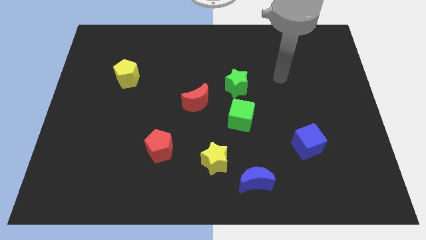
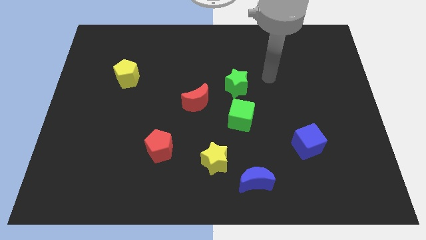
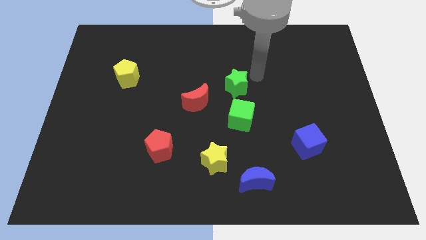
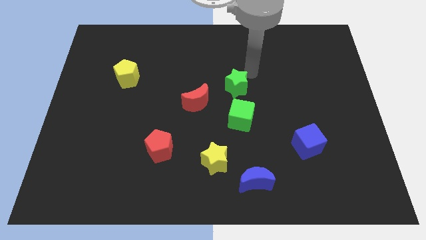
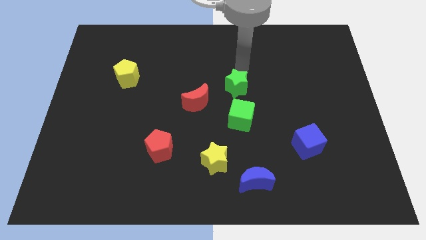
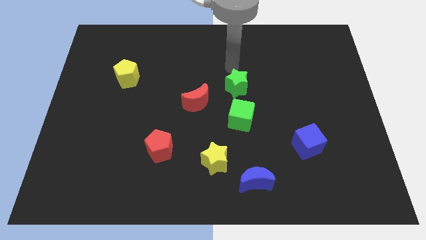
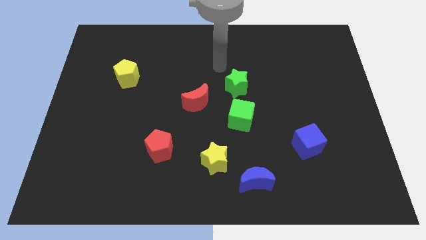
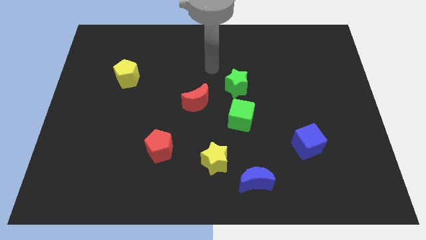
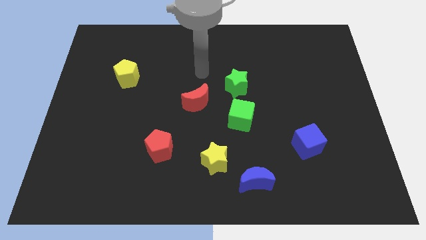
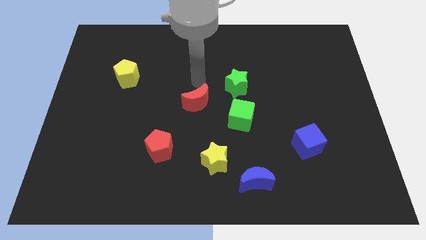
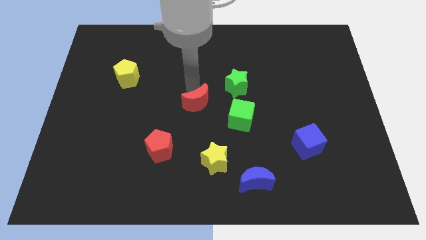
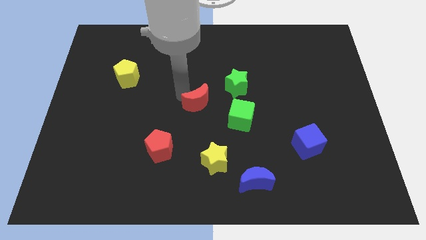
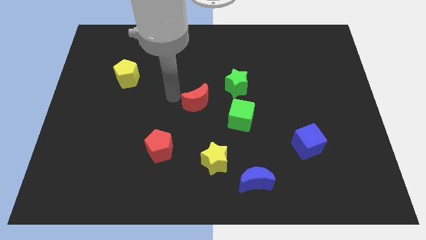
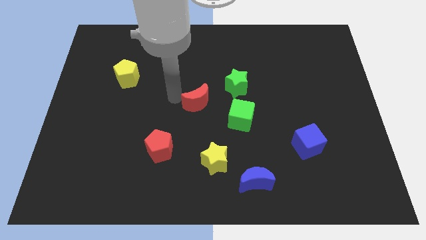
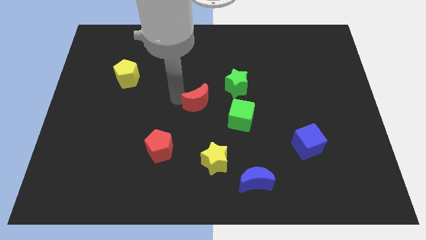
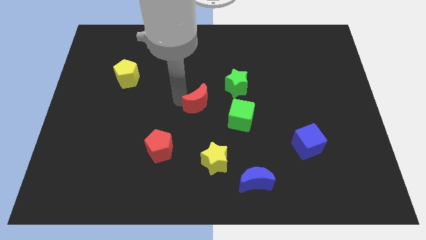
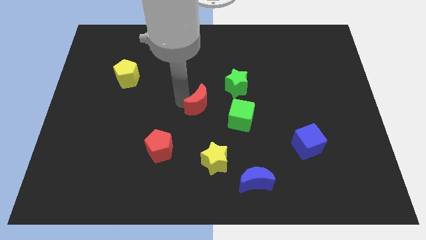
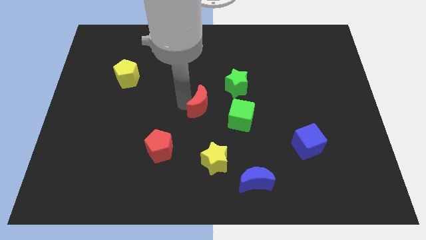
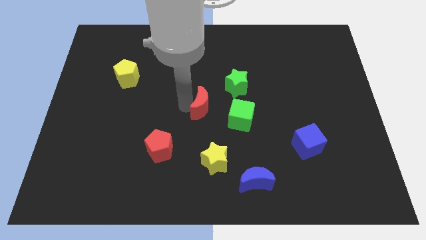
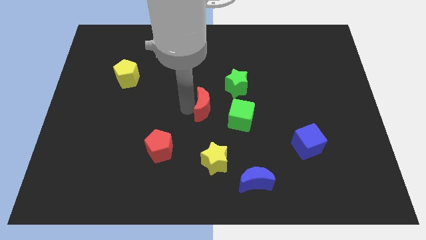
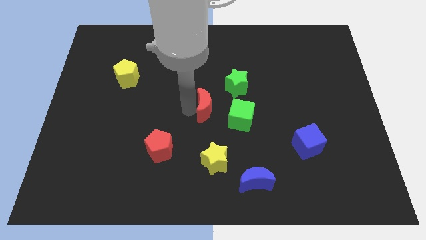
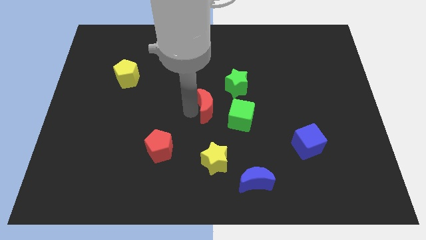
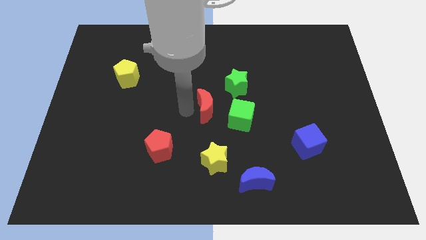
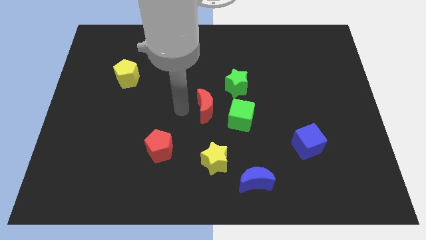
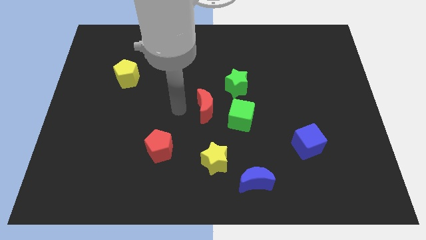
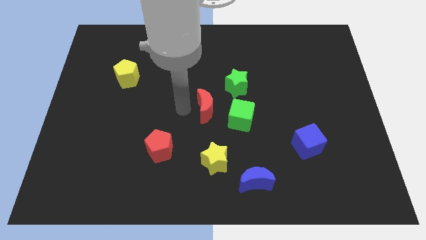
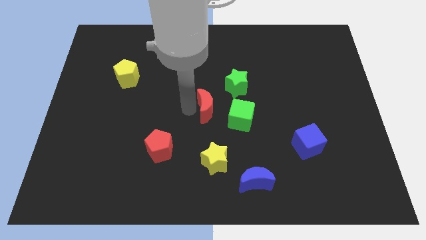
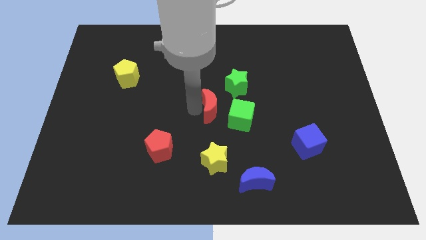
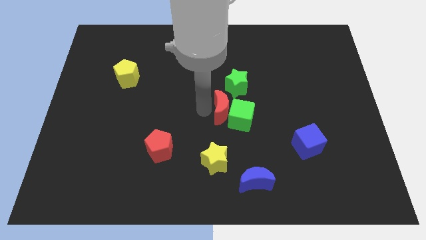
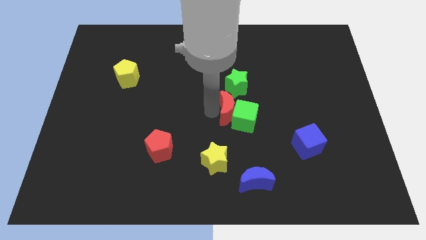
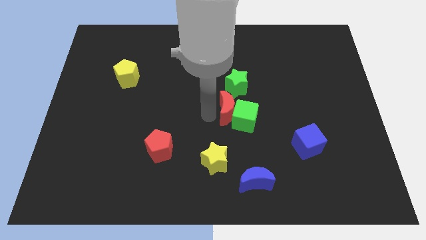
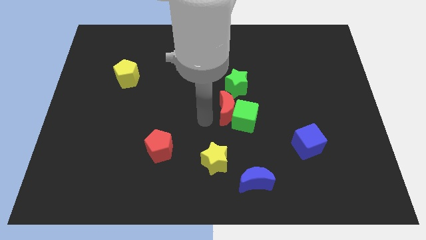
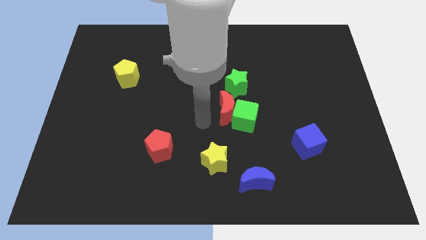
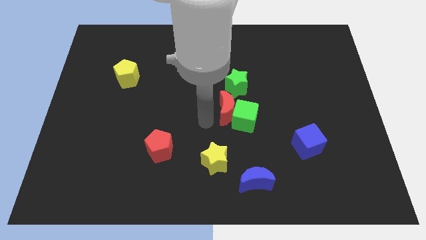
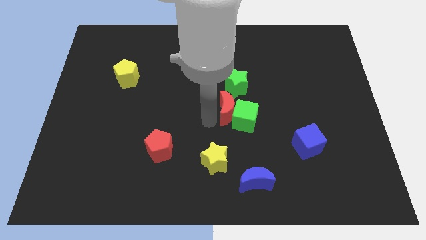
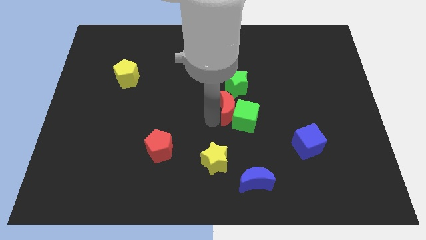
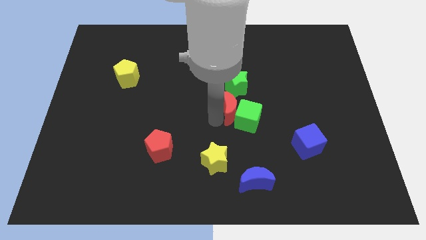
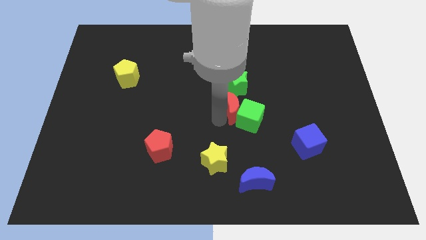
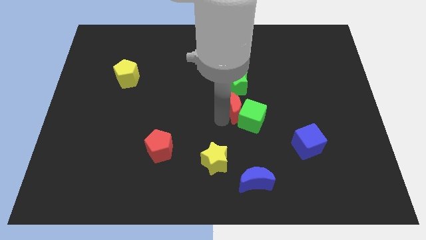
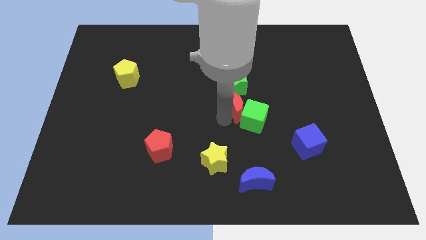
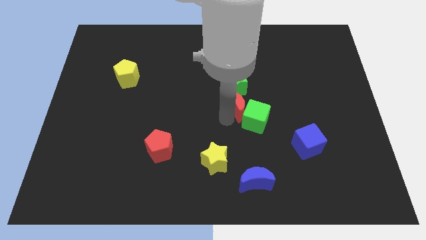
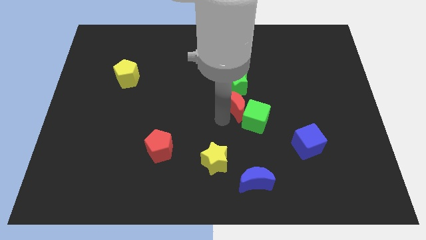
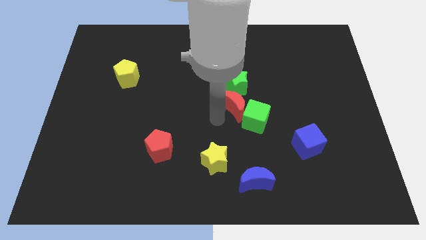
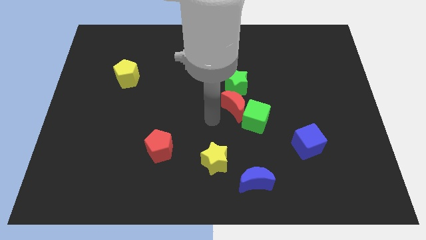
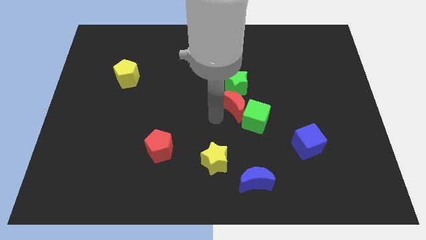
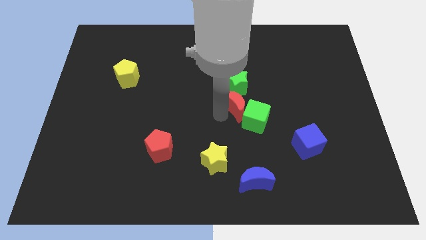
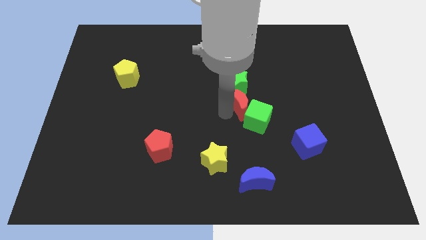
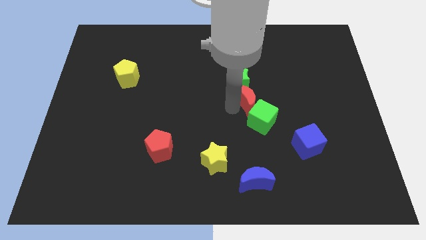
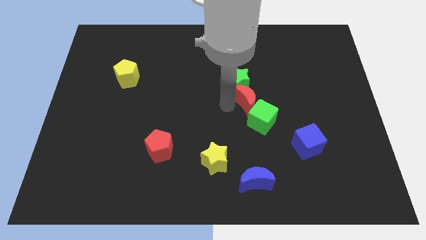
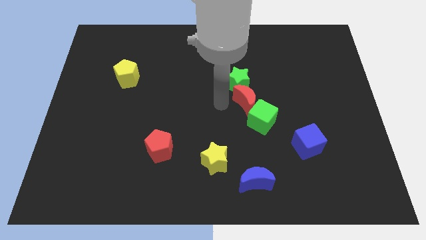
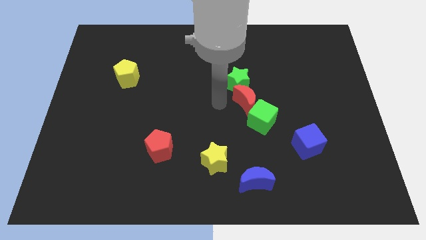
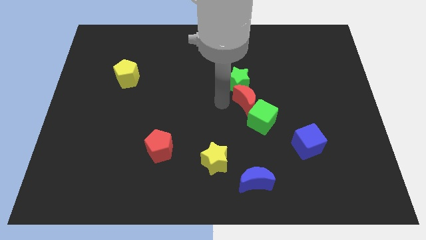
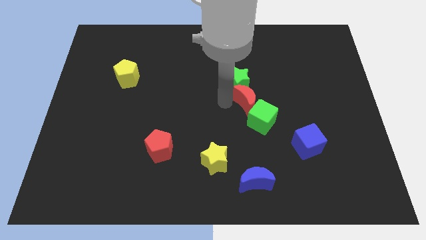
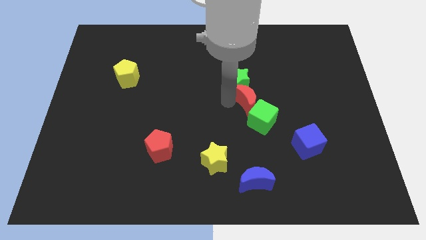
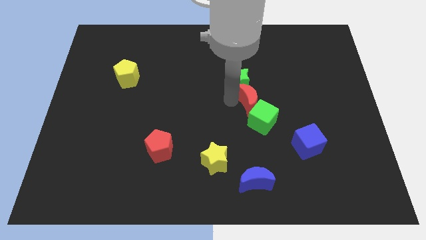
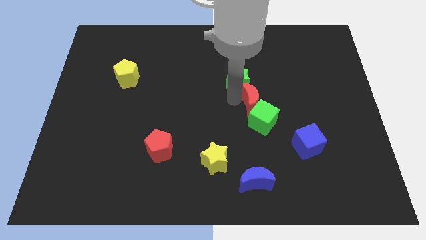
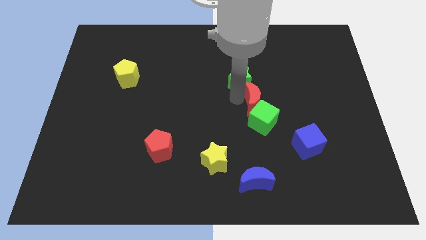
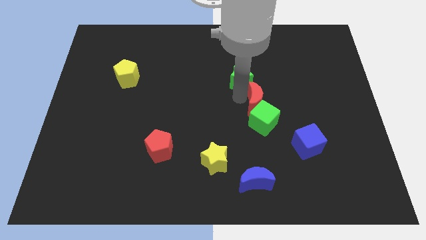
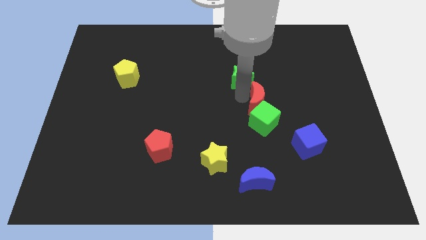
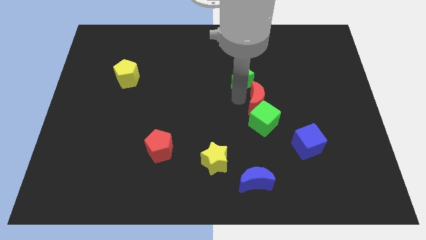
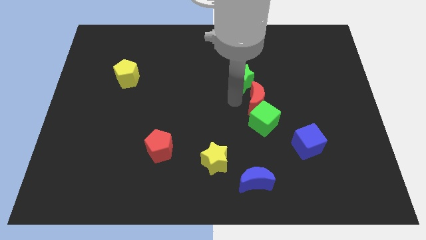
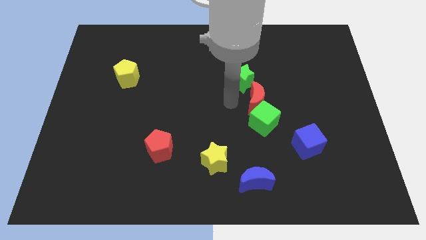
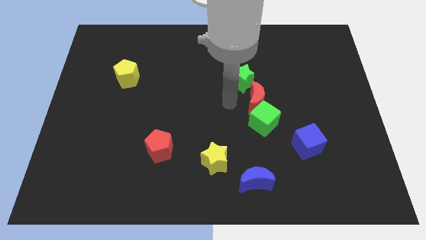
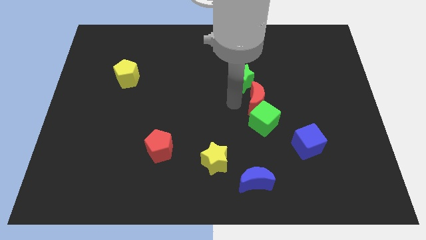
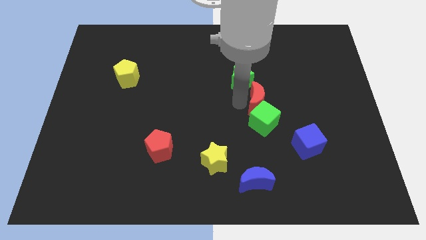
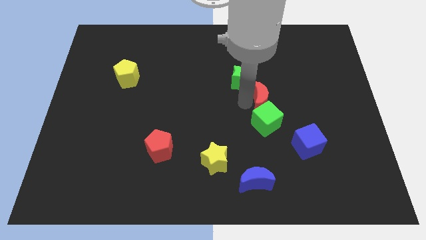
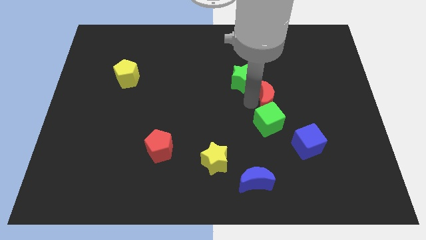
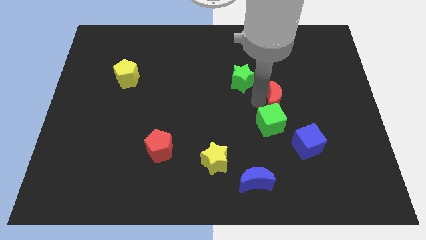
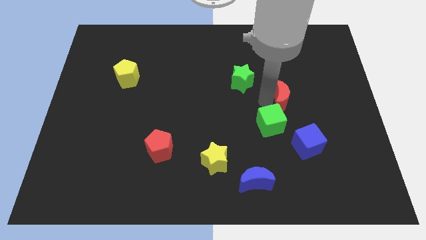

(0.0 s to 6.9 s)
move the red moon to the right

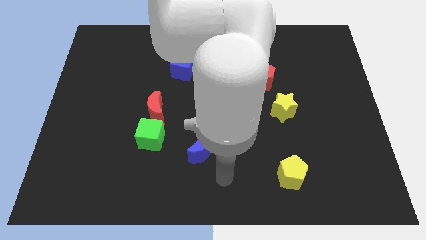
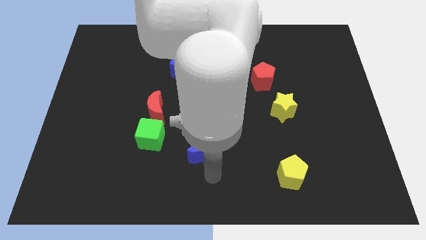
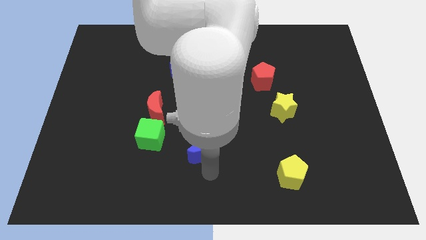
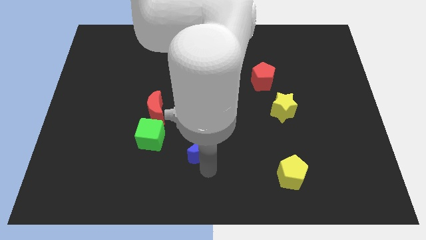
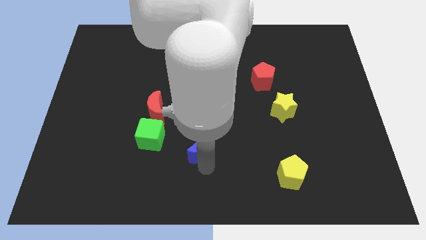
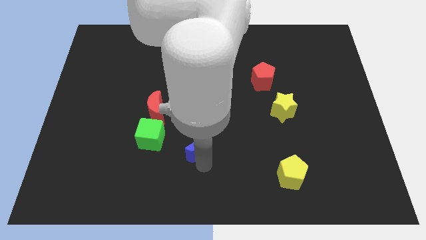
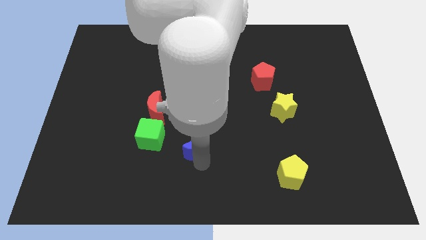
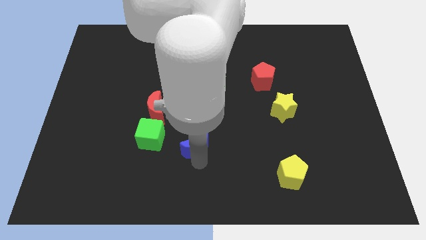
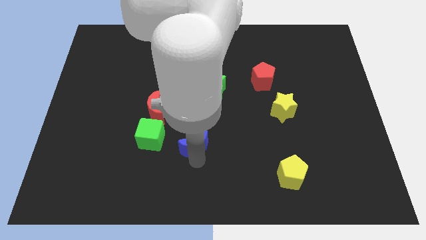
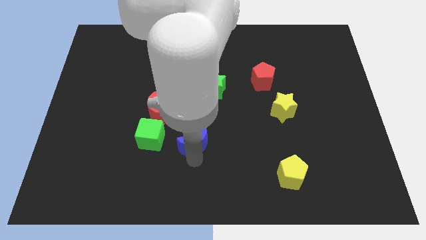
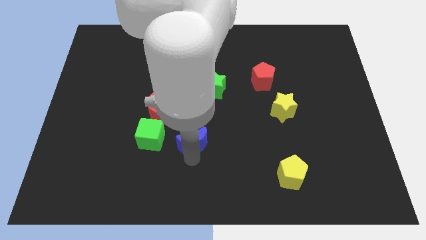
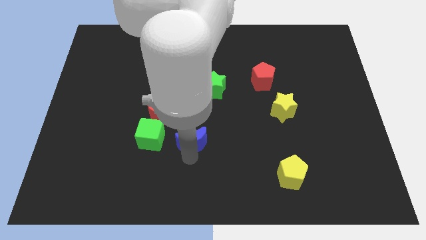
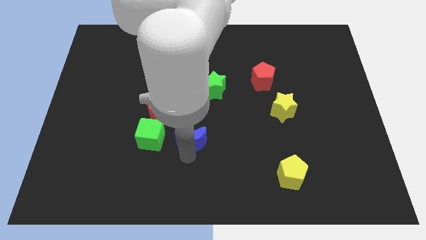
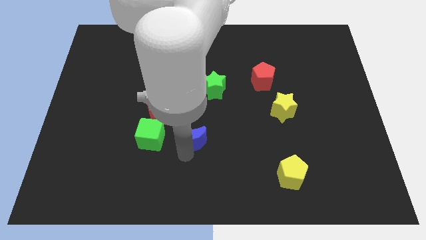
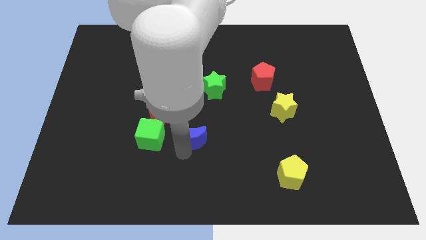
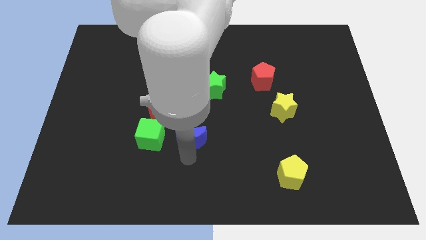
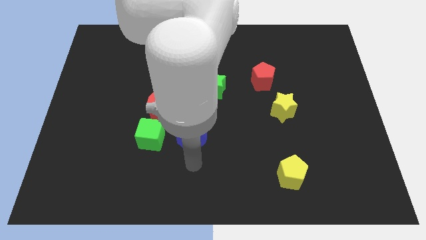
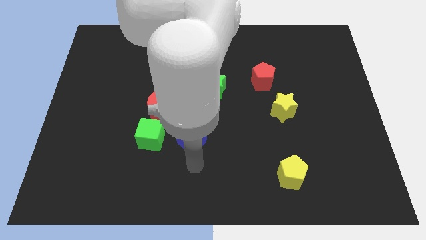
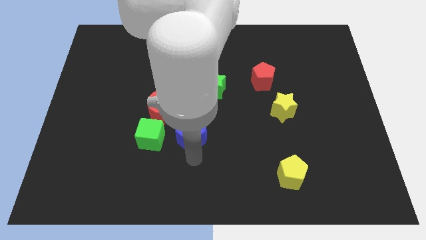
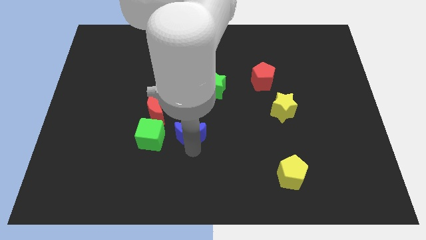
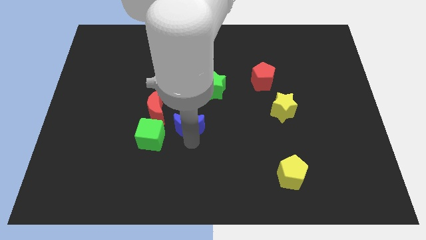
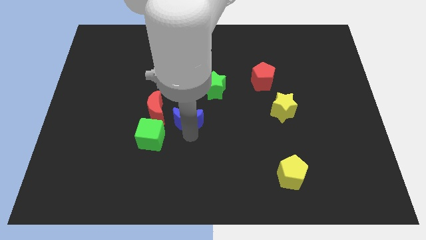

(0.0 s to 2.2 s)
move the blue moon upwards and to the left diagonally slightly
